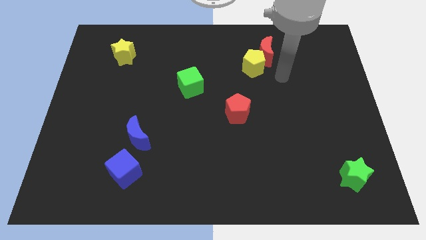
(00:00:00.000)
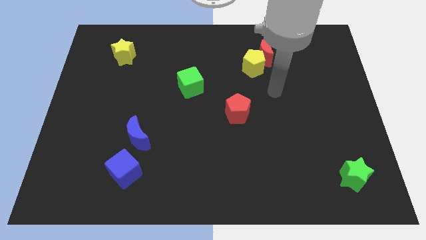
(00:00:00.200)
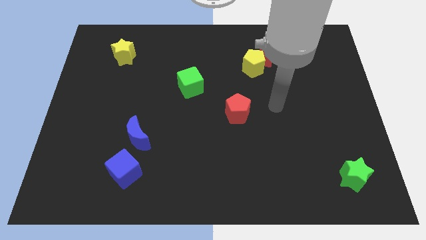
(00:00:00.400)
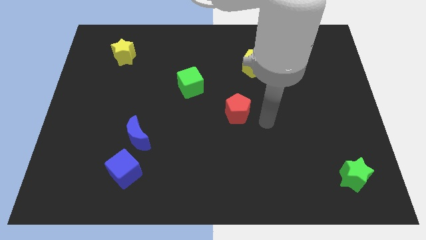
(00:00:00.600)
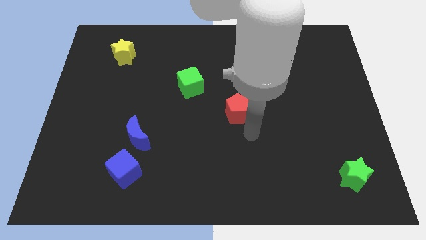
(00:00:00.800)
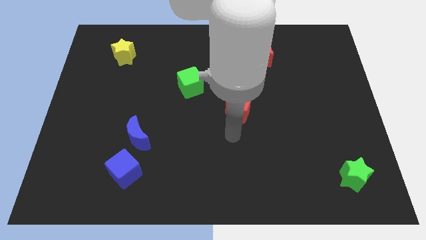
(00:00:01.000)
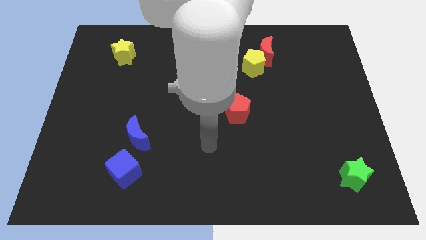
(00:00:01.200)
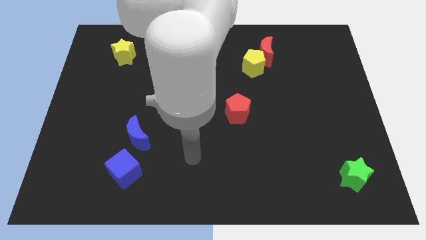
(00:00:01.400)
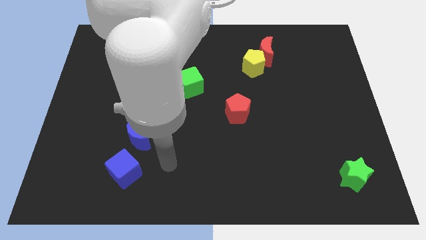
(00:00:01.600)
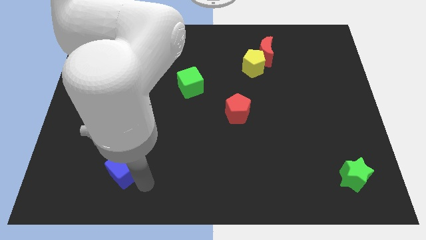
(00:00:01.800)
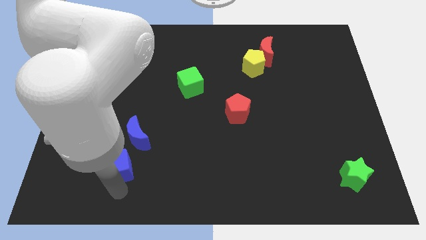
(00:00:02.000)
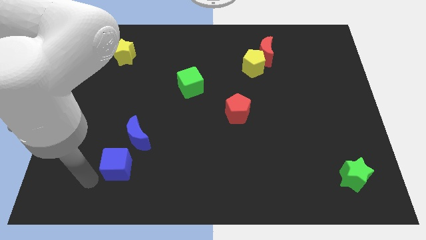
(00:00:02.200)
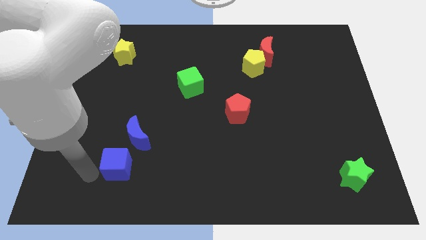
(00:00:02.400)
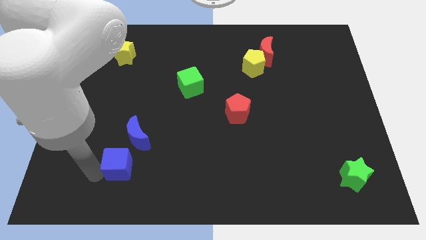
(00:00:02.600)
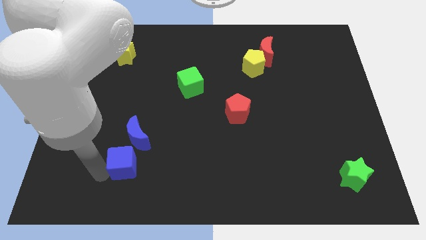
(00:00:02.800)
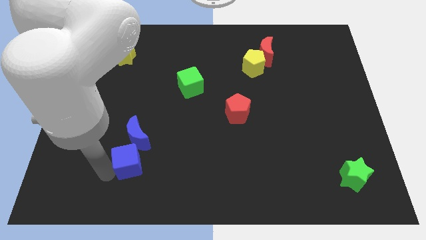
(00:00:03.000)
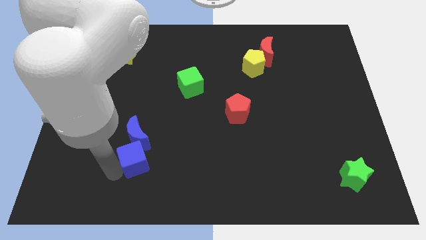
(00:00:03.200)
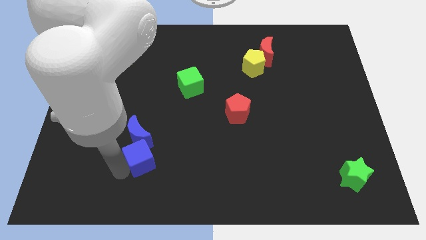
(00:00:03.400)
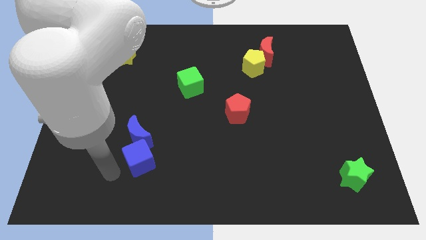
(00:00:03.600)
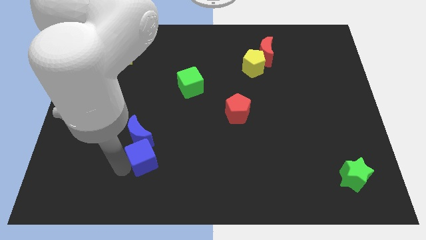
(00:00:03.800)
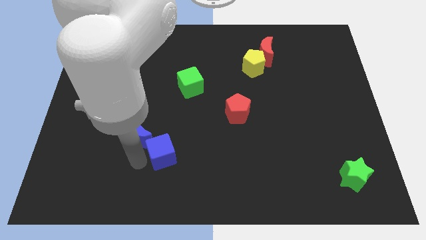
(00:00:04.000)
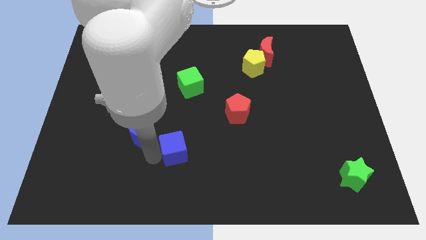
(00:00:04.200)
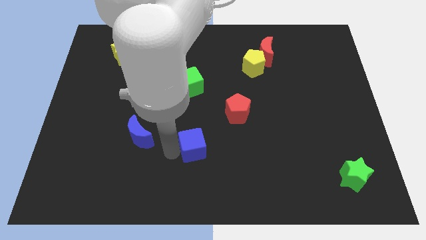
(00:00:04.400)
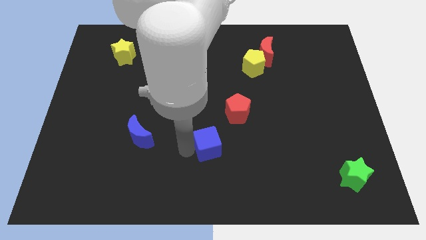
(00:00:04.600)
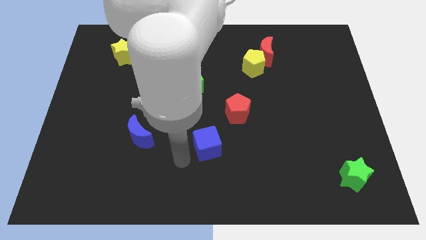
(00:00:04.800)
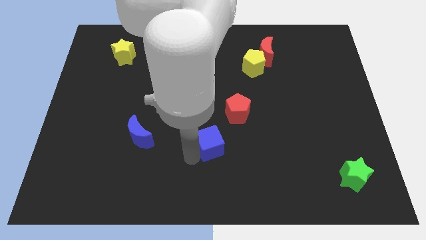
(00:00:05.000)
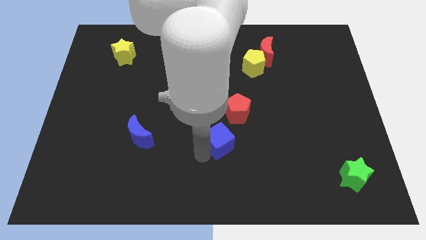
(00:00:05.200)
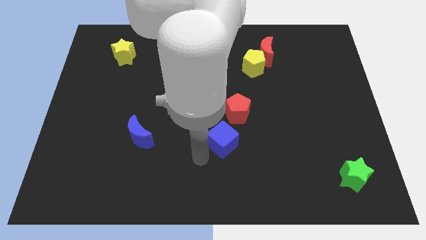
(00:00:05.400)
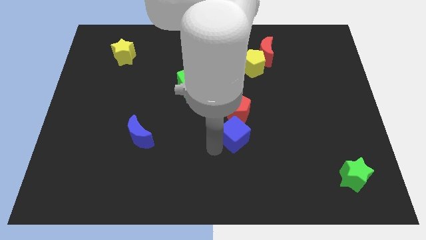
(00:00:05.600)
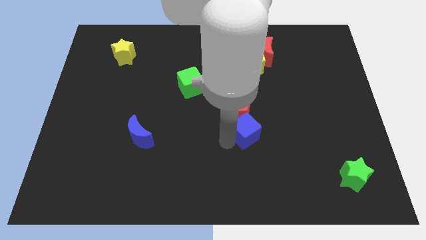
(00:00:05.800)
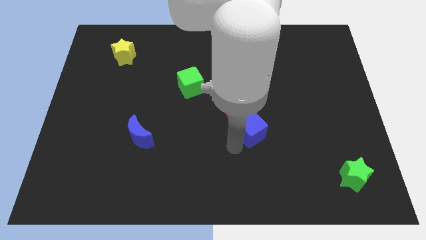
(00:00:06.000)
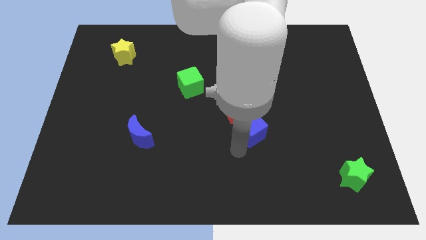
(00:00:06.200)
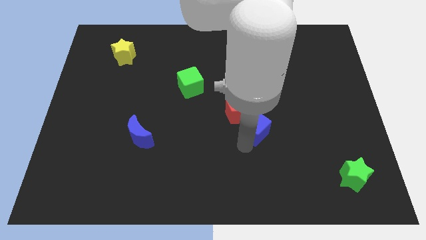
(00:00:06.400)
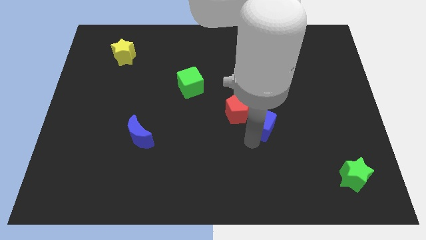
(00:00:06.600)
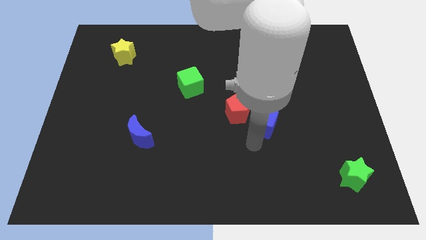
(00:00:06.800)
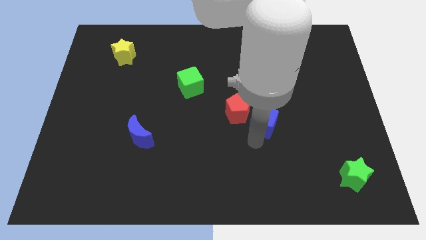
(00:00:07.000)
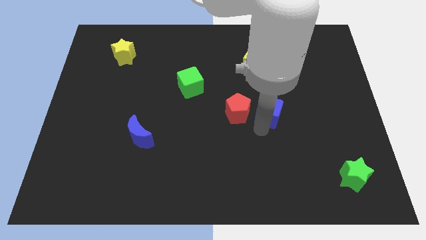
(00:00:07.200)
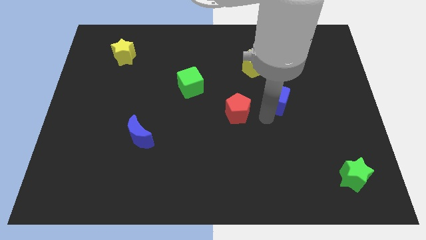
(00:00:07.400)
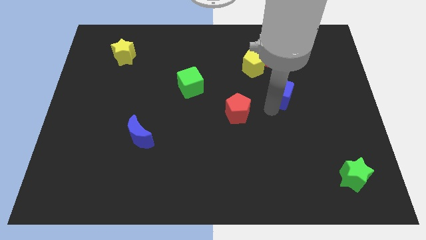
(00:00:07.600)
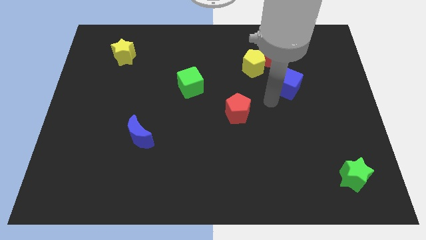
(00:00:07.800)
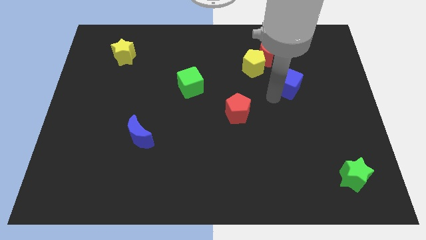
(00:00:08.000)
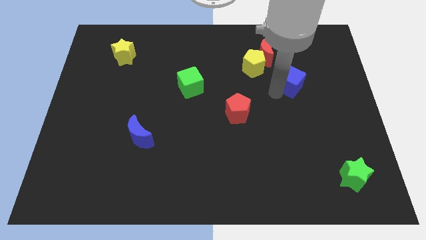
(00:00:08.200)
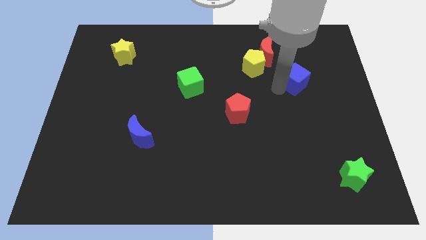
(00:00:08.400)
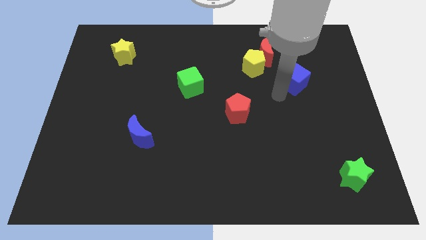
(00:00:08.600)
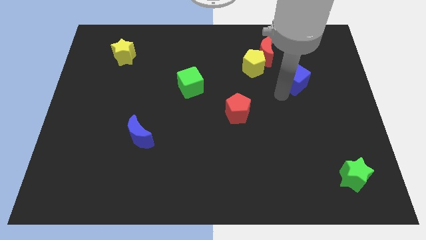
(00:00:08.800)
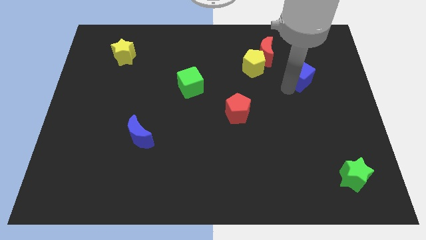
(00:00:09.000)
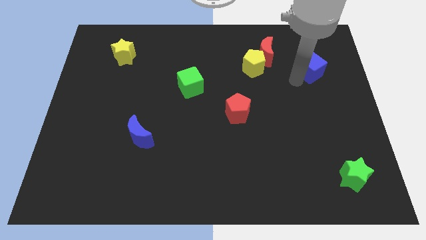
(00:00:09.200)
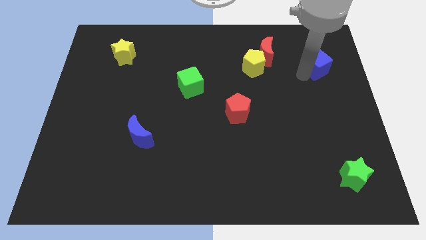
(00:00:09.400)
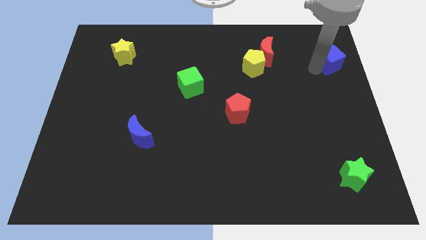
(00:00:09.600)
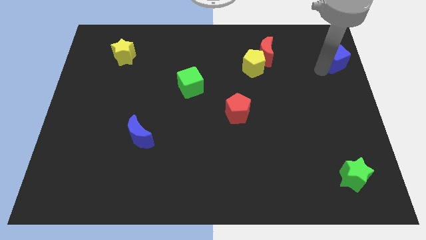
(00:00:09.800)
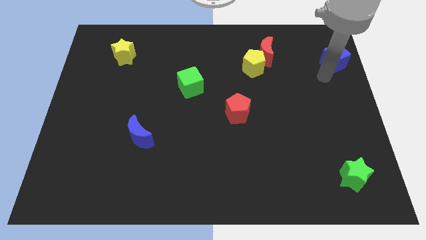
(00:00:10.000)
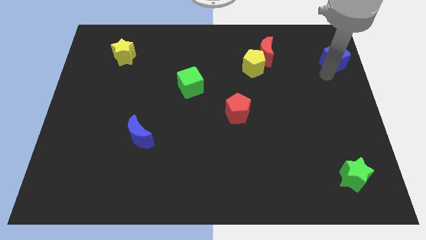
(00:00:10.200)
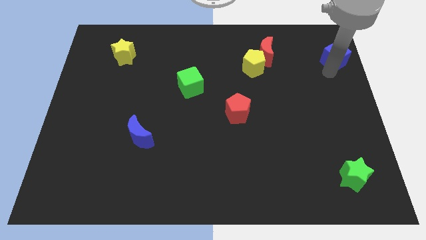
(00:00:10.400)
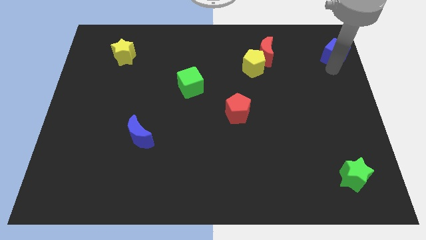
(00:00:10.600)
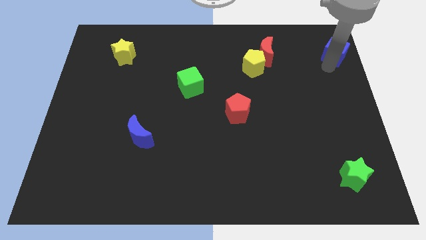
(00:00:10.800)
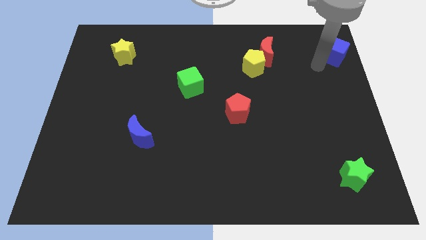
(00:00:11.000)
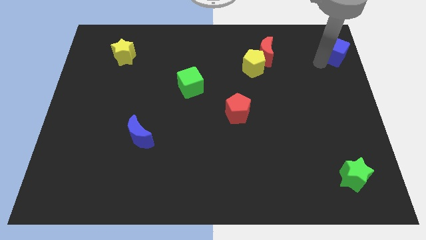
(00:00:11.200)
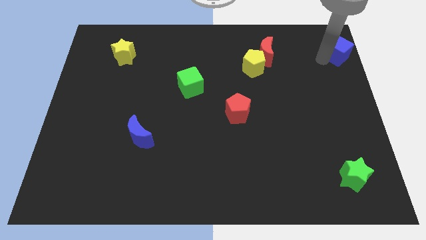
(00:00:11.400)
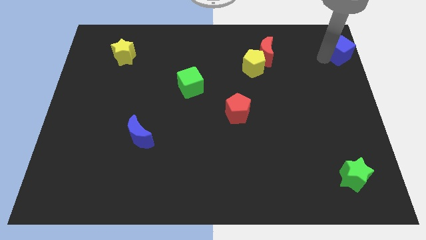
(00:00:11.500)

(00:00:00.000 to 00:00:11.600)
slide the blue cube to the top right of the board

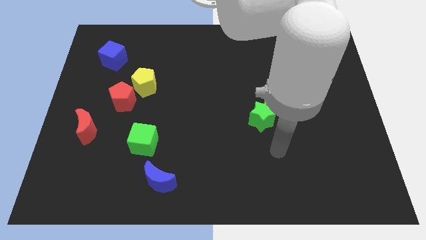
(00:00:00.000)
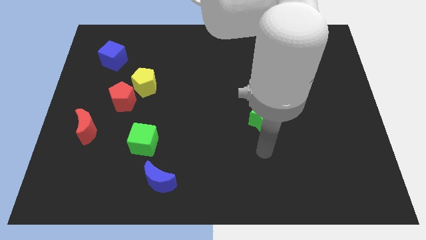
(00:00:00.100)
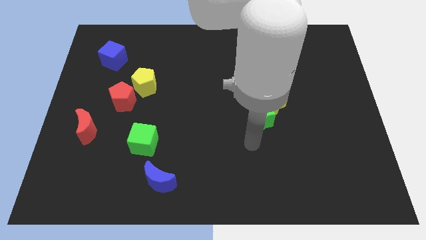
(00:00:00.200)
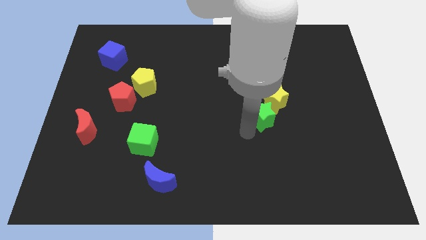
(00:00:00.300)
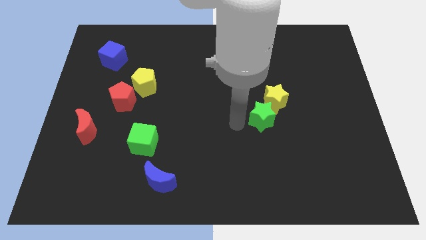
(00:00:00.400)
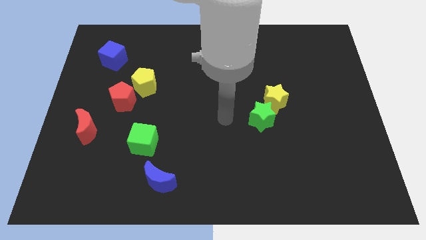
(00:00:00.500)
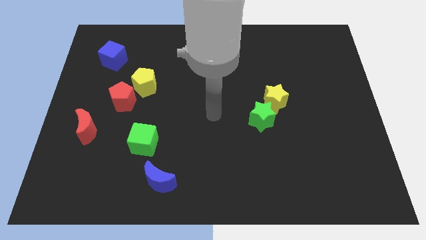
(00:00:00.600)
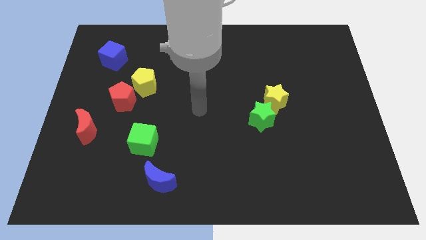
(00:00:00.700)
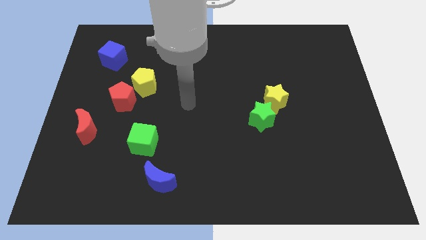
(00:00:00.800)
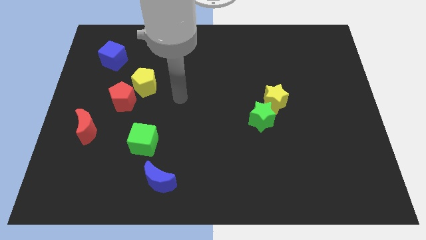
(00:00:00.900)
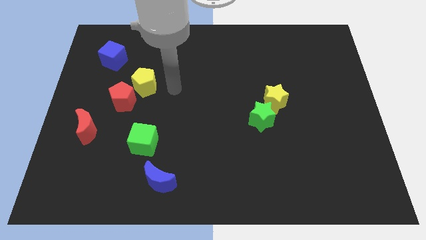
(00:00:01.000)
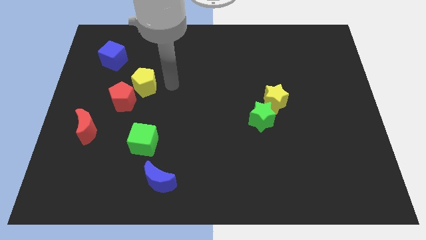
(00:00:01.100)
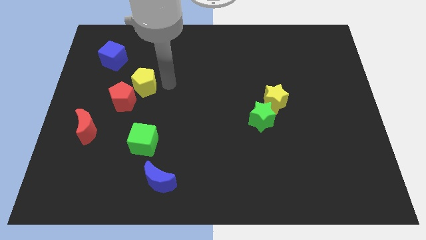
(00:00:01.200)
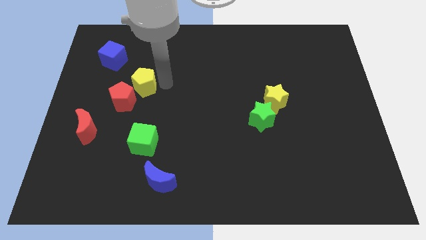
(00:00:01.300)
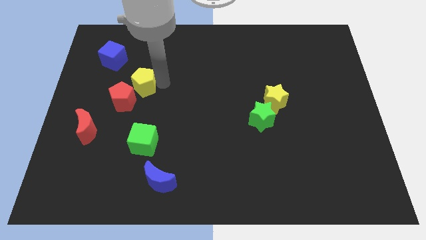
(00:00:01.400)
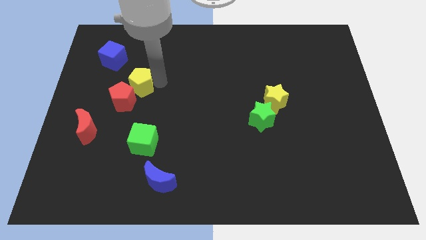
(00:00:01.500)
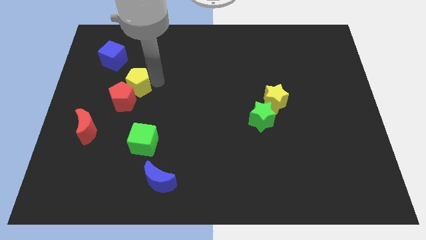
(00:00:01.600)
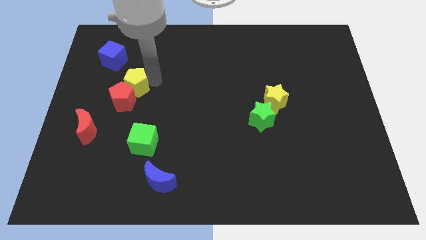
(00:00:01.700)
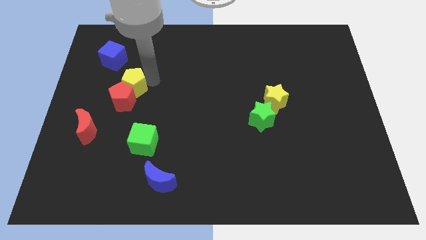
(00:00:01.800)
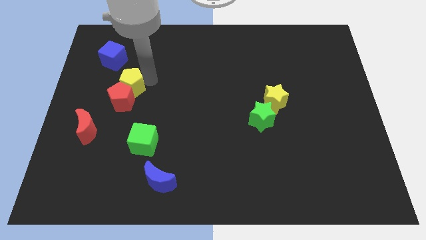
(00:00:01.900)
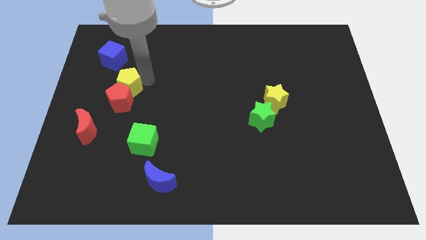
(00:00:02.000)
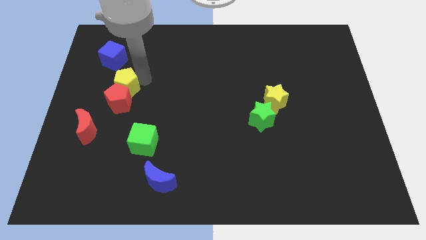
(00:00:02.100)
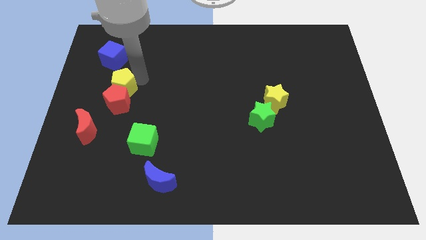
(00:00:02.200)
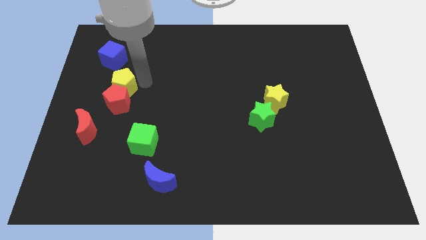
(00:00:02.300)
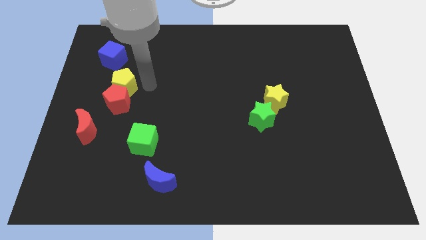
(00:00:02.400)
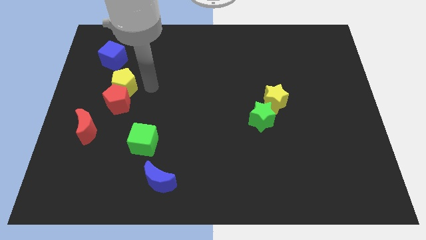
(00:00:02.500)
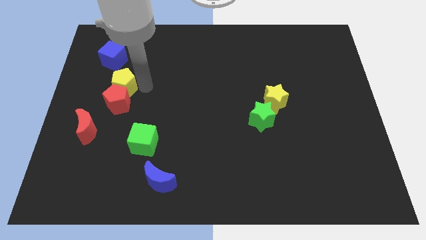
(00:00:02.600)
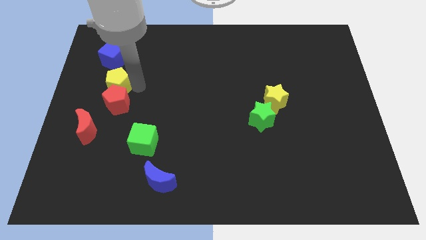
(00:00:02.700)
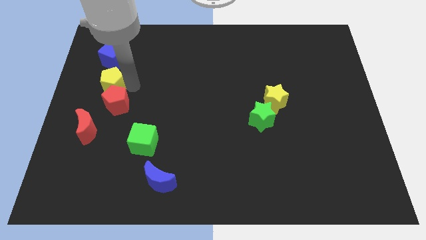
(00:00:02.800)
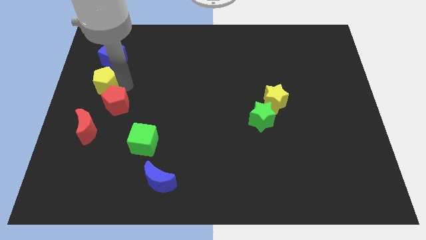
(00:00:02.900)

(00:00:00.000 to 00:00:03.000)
move the yellow pentagon to the center left
